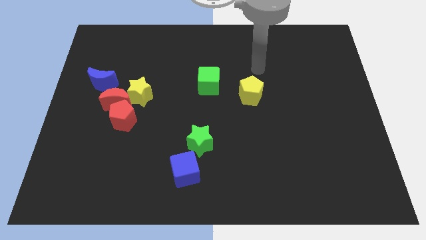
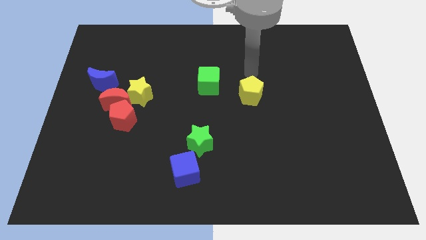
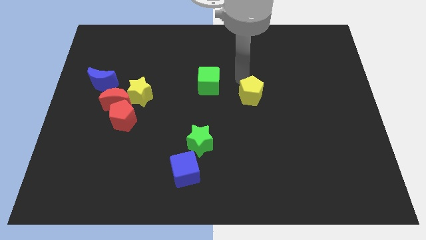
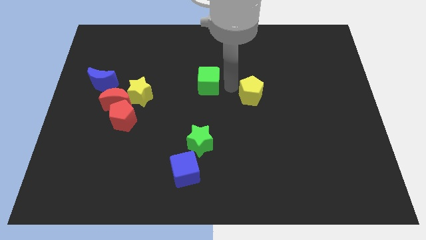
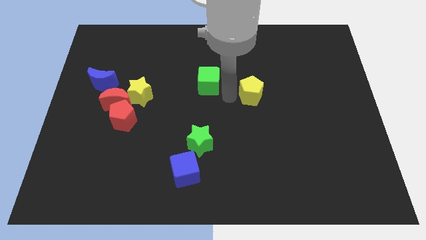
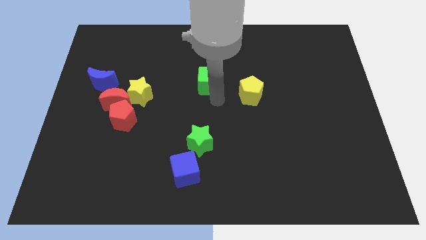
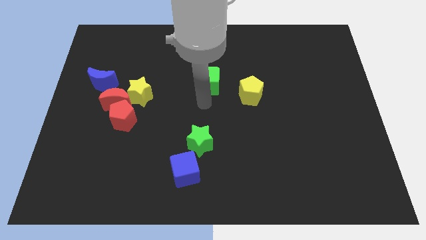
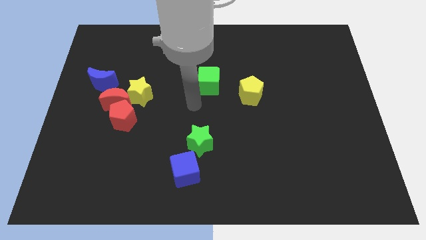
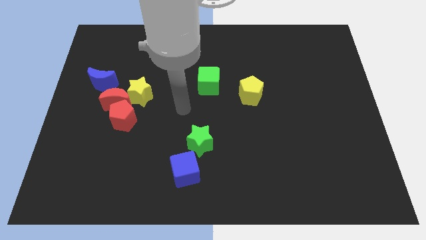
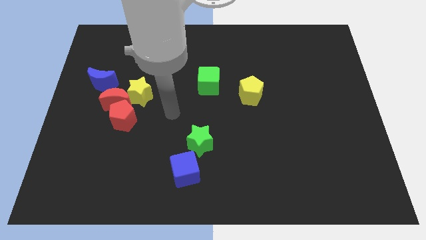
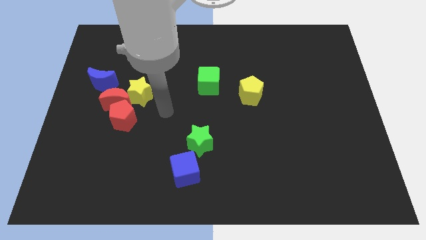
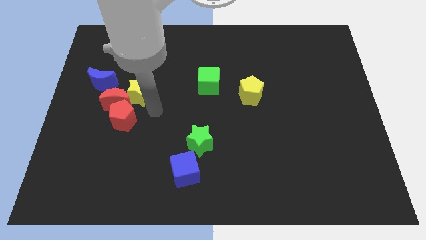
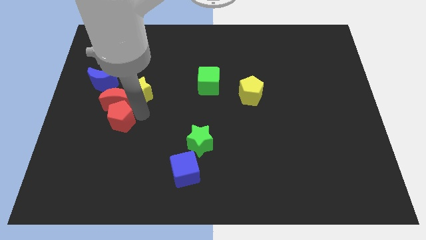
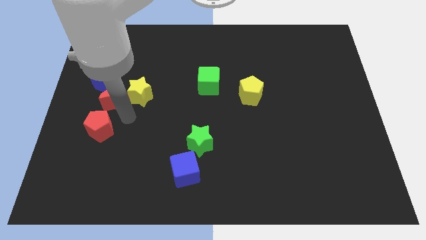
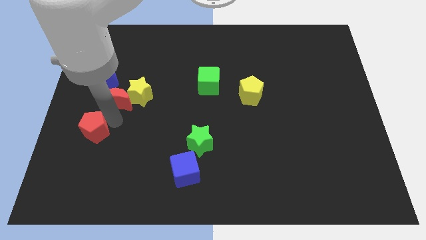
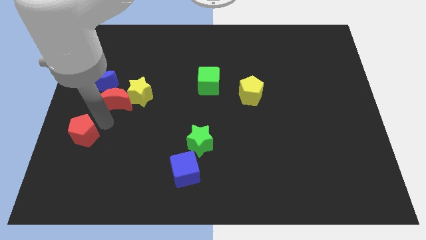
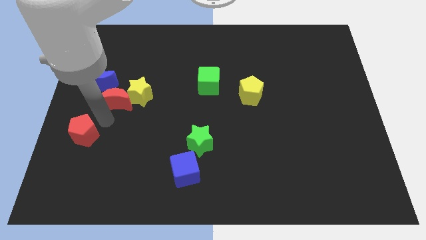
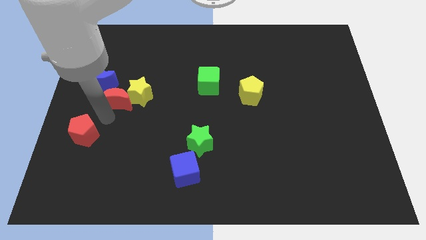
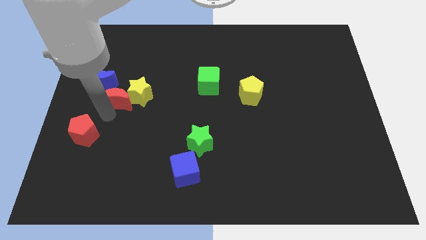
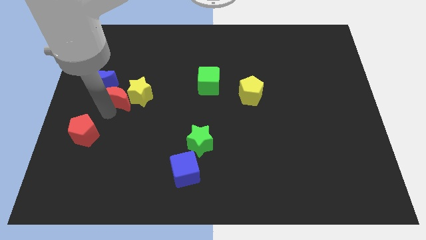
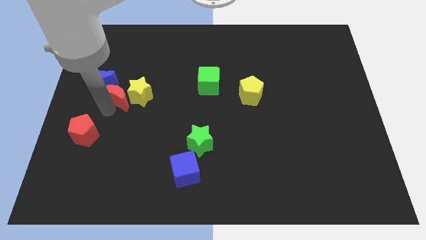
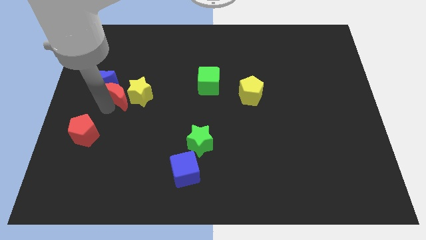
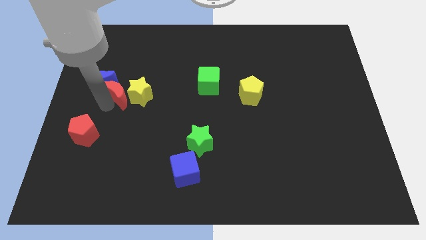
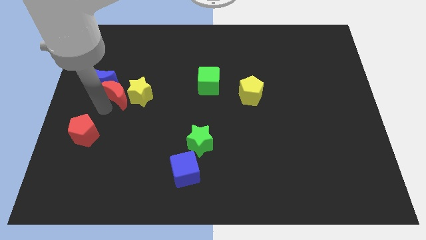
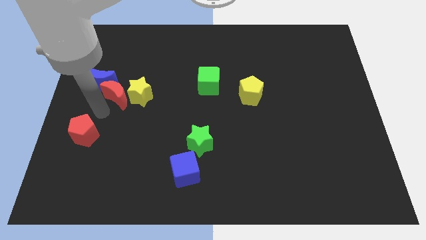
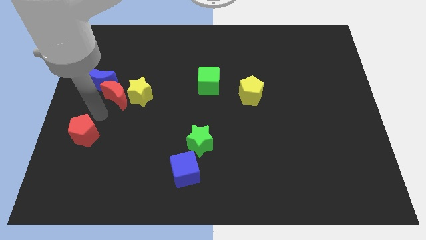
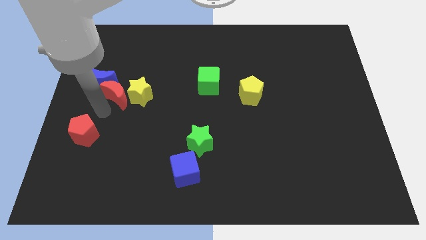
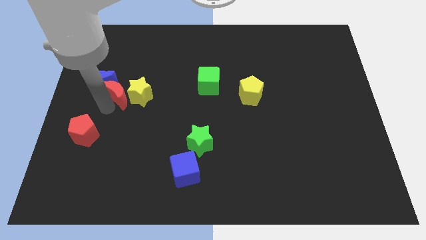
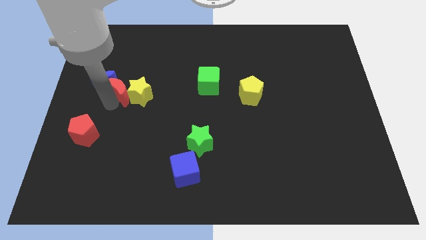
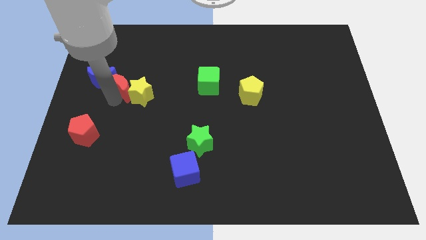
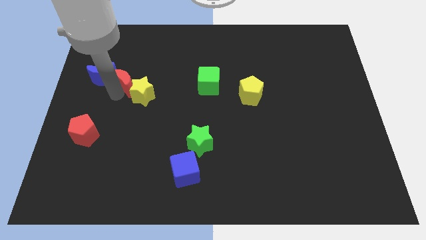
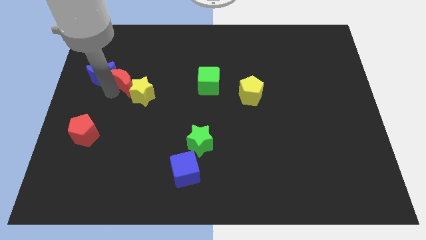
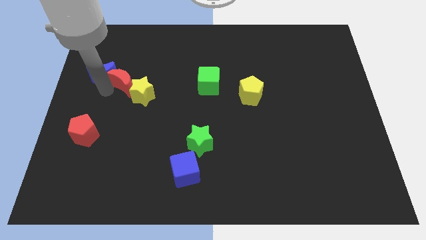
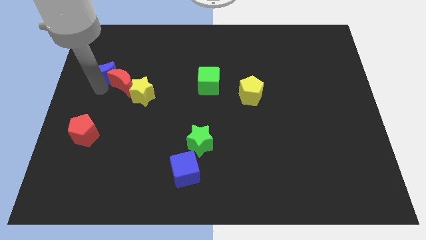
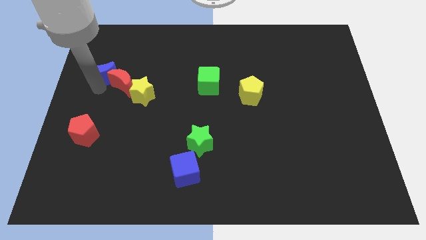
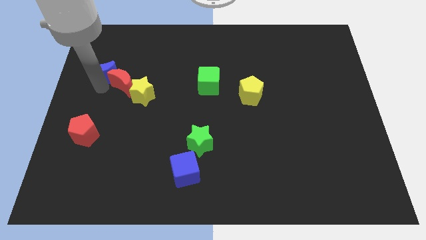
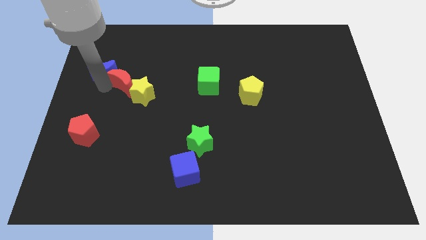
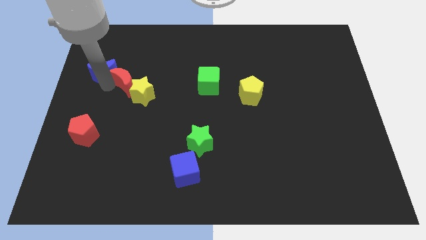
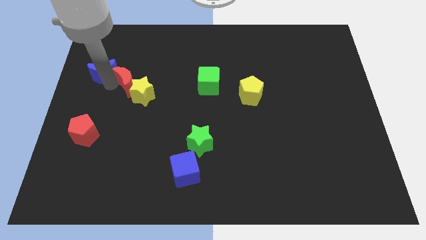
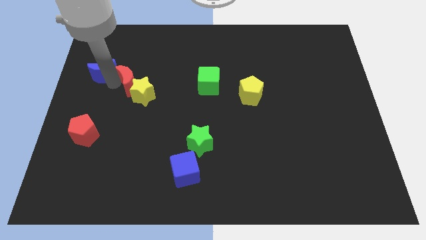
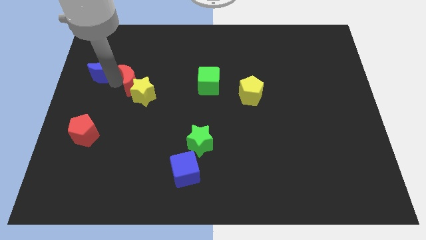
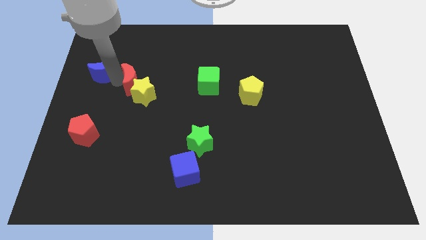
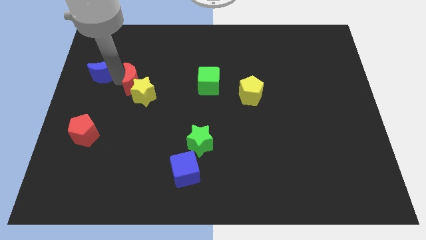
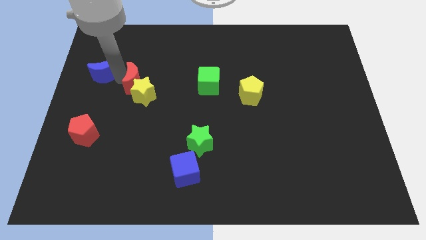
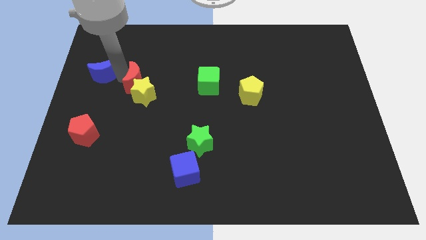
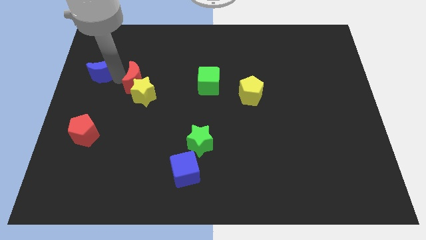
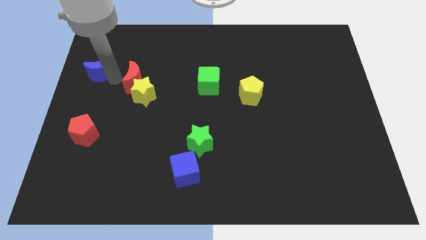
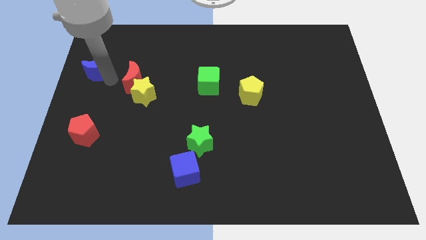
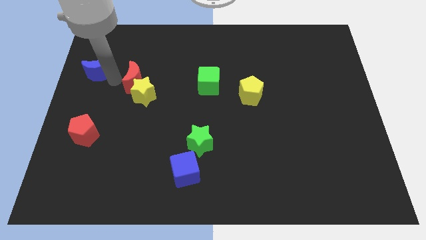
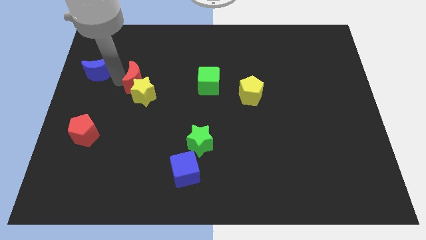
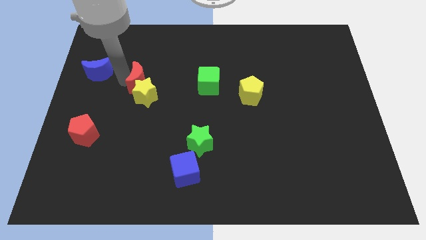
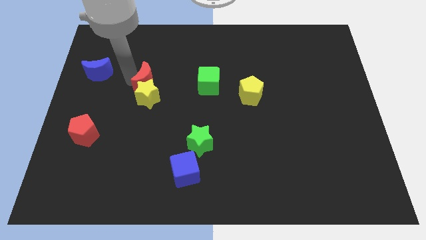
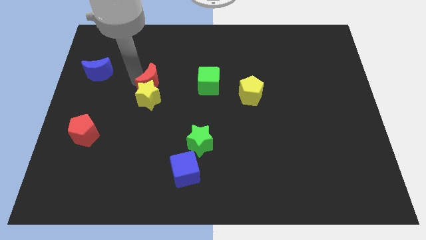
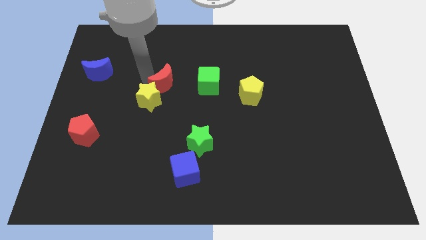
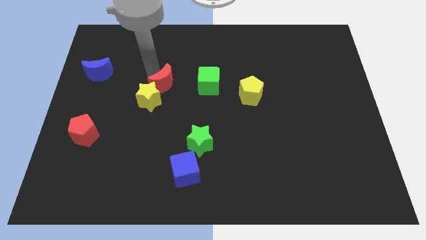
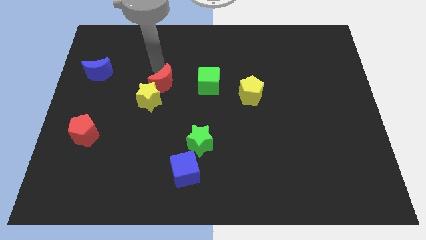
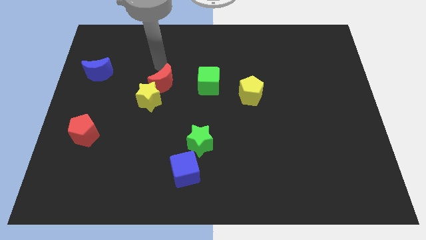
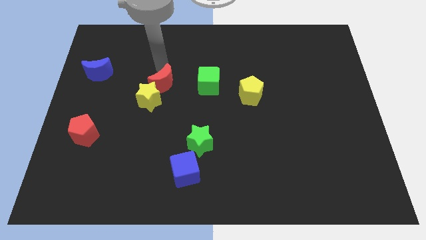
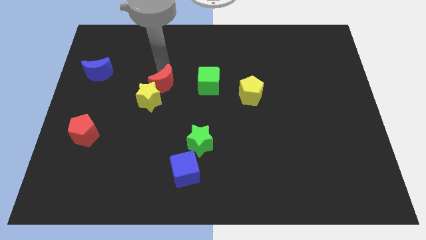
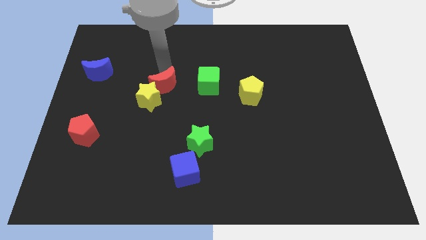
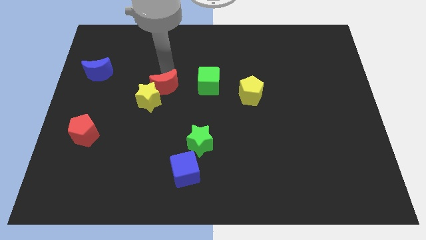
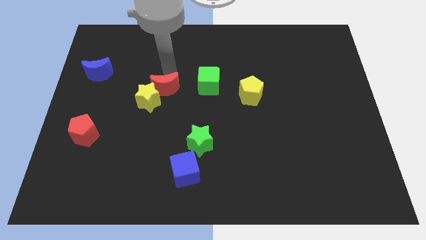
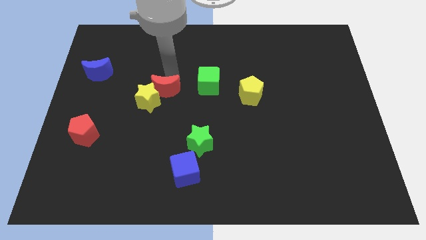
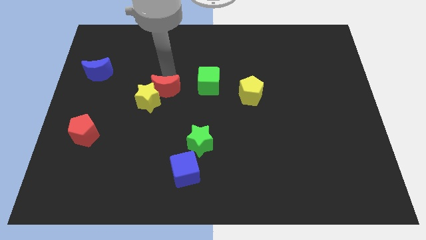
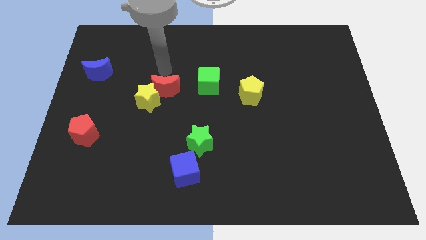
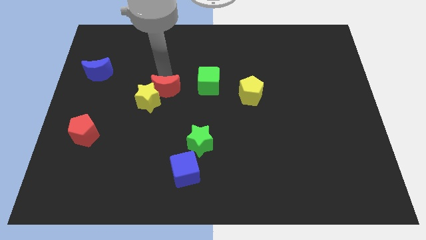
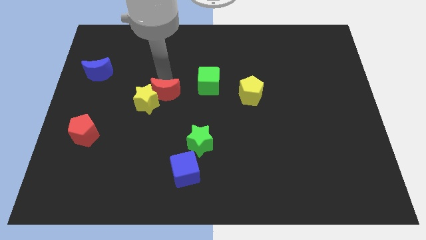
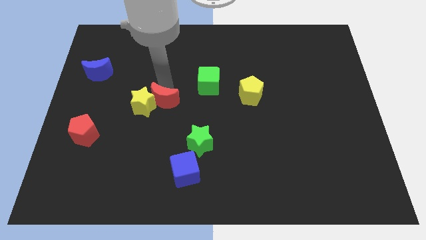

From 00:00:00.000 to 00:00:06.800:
push the red moon to the bottom right side of the yellow star
